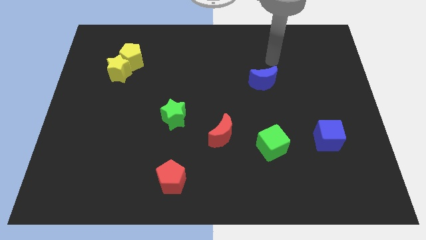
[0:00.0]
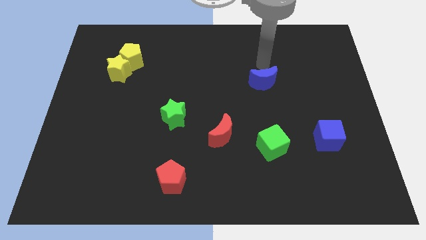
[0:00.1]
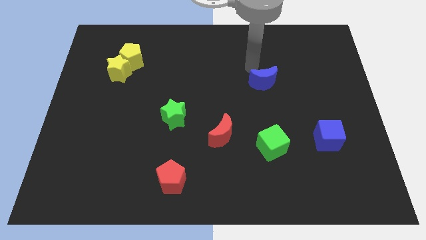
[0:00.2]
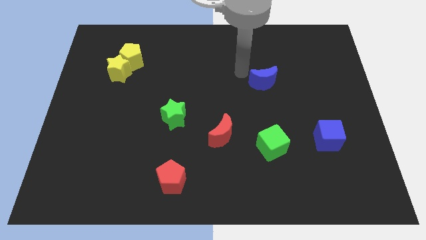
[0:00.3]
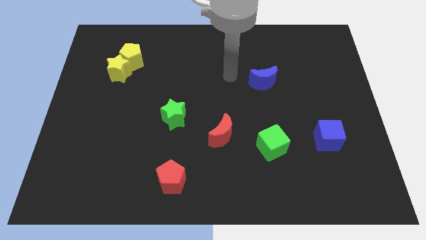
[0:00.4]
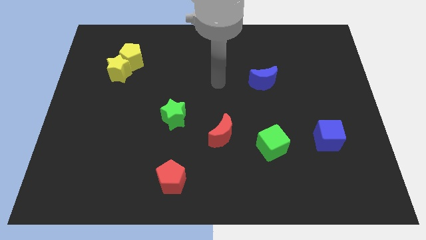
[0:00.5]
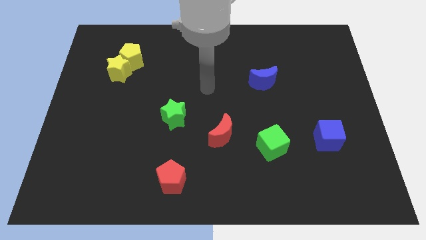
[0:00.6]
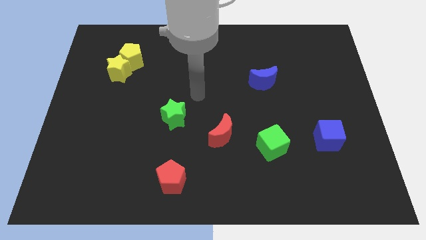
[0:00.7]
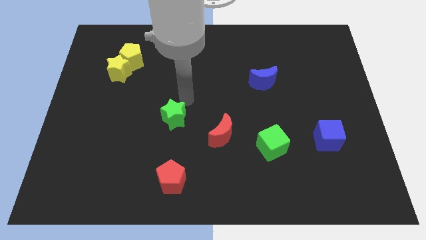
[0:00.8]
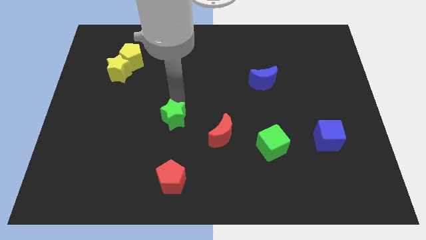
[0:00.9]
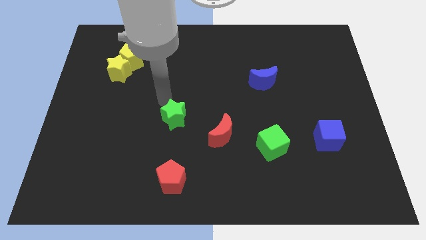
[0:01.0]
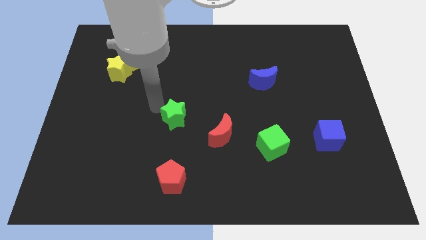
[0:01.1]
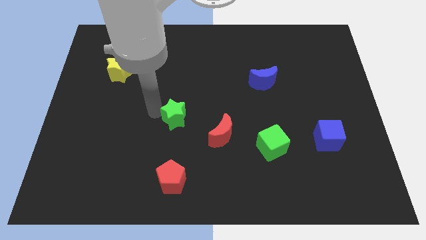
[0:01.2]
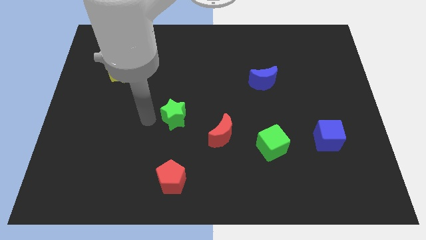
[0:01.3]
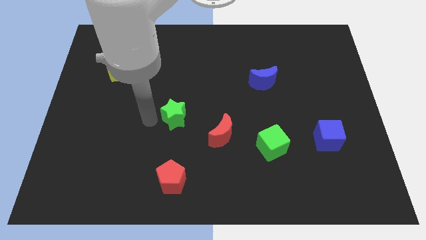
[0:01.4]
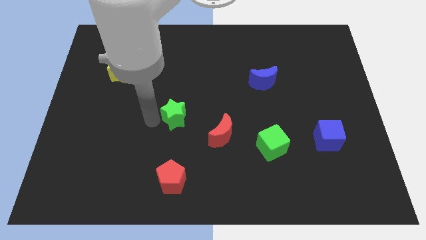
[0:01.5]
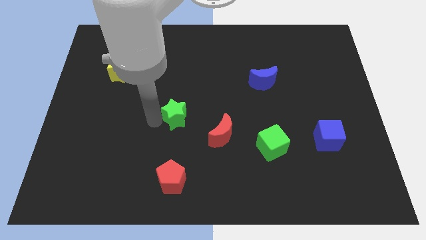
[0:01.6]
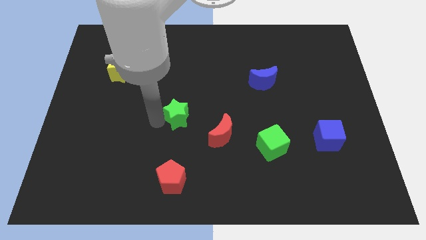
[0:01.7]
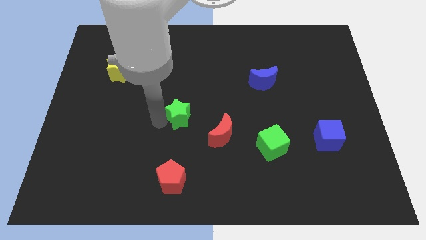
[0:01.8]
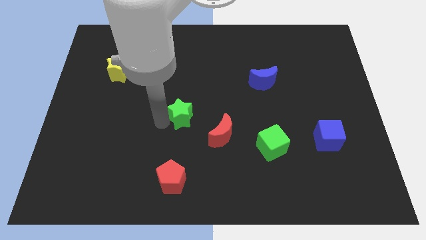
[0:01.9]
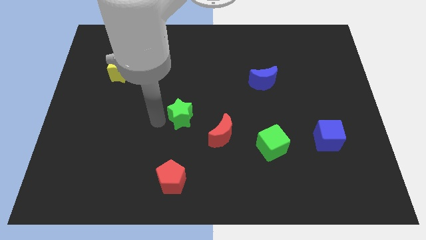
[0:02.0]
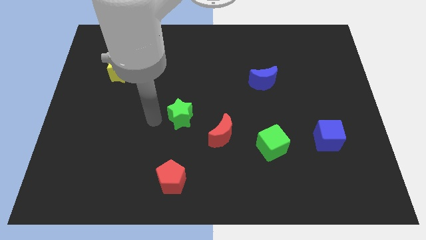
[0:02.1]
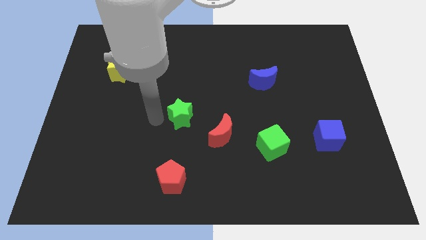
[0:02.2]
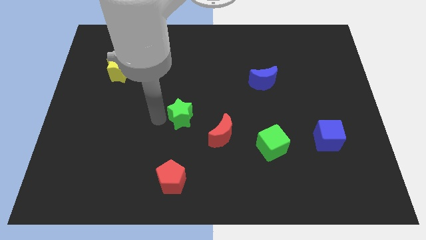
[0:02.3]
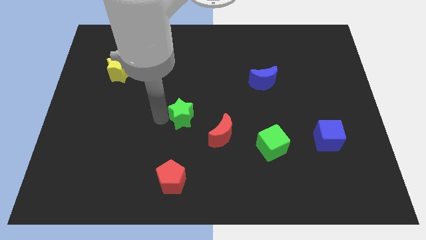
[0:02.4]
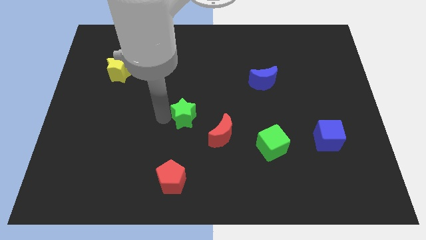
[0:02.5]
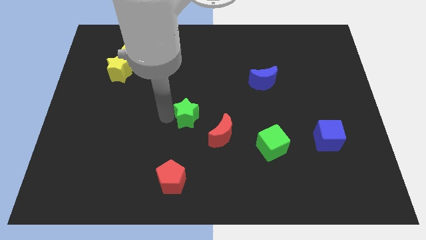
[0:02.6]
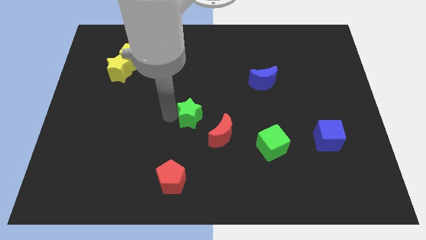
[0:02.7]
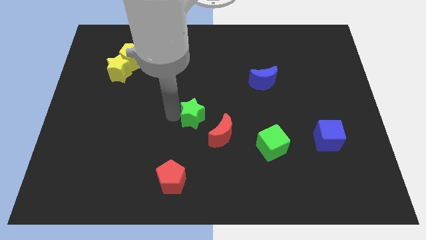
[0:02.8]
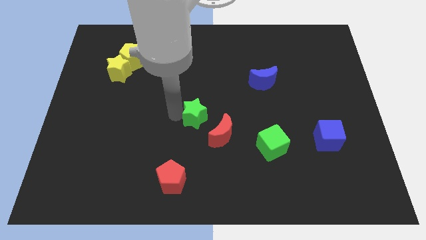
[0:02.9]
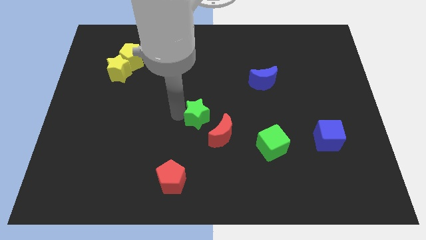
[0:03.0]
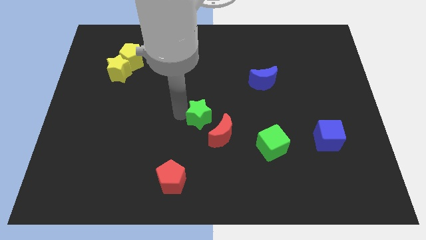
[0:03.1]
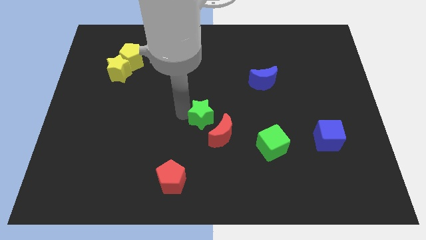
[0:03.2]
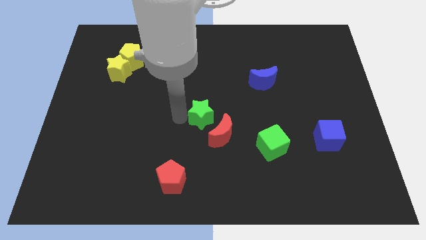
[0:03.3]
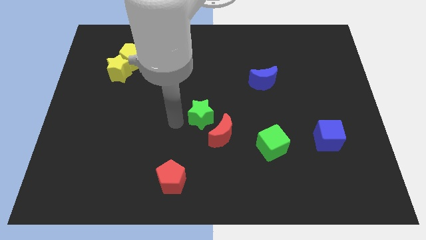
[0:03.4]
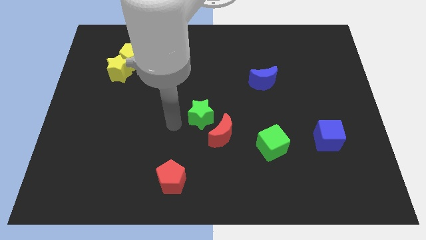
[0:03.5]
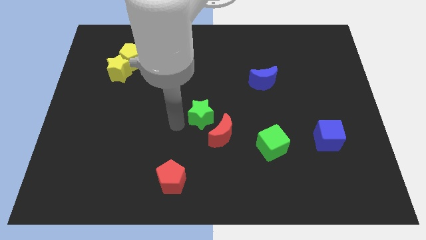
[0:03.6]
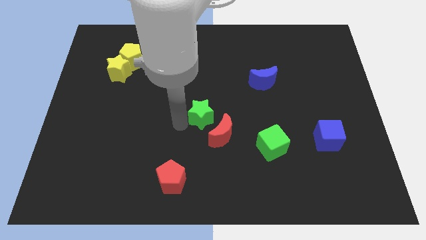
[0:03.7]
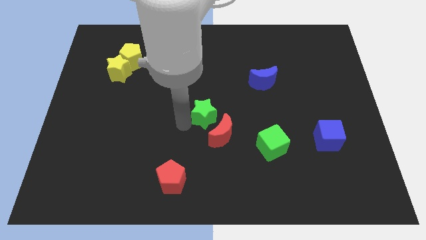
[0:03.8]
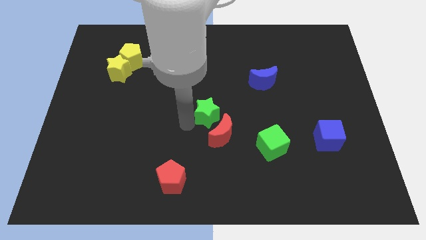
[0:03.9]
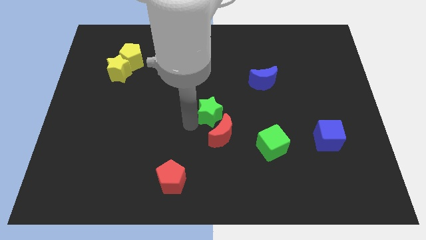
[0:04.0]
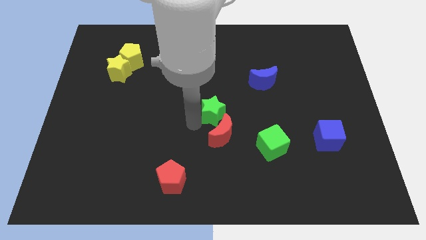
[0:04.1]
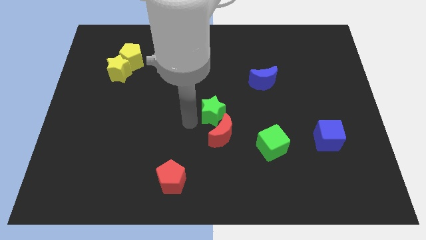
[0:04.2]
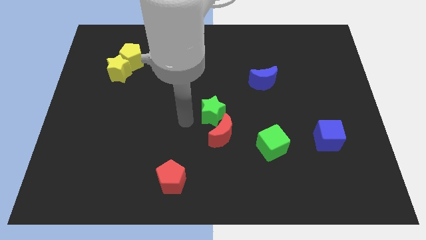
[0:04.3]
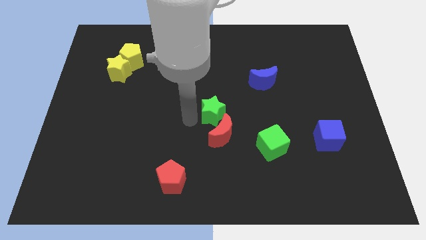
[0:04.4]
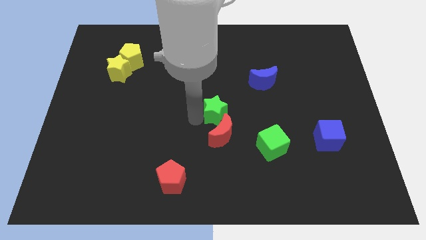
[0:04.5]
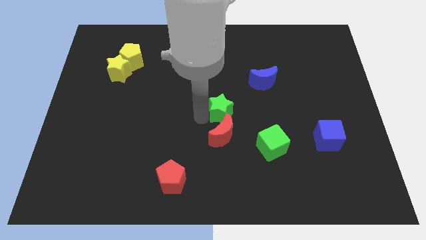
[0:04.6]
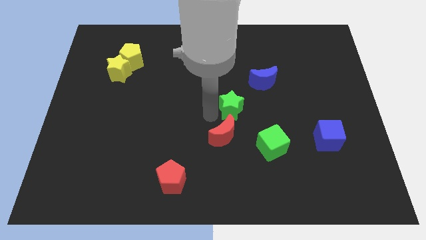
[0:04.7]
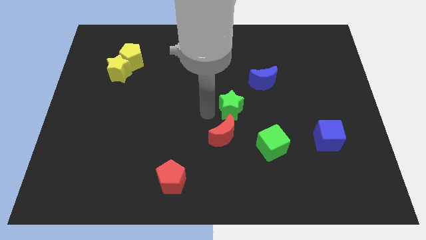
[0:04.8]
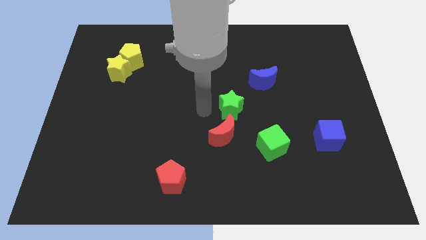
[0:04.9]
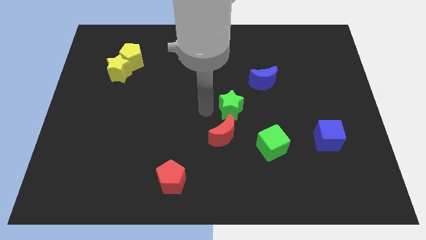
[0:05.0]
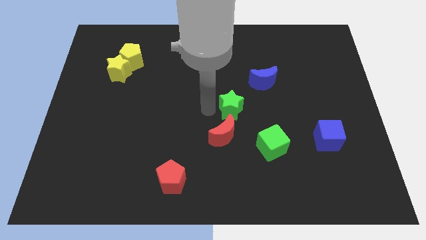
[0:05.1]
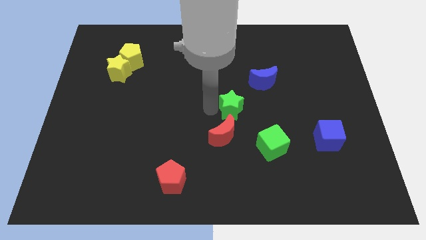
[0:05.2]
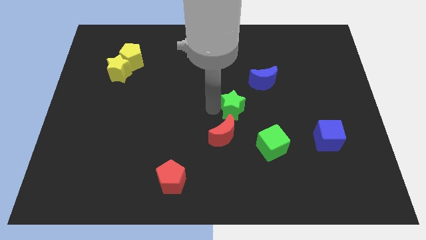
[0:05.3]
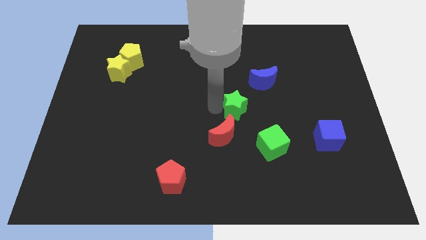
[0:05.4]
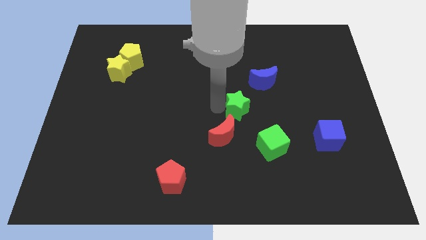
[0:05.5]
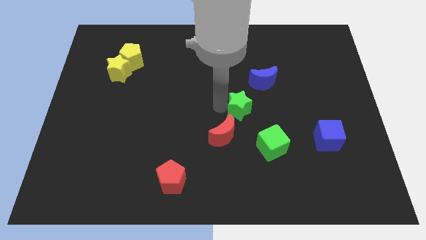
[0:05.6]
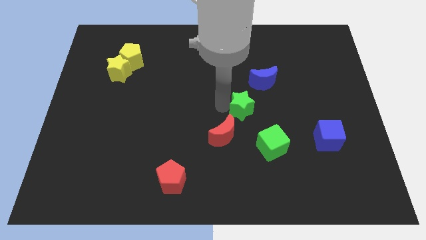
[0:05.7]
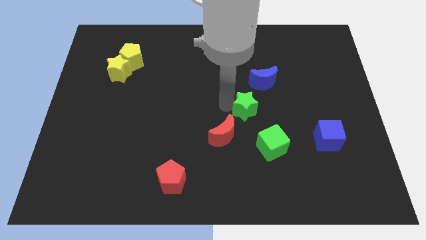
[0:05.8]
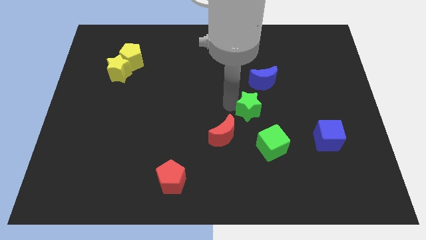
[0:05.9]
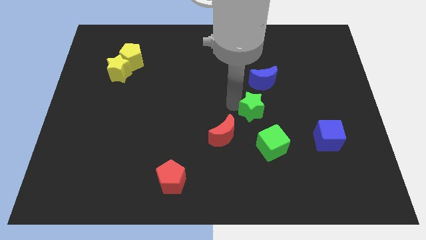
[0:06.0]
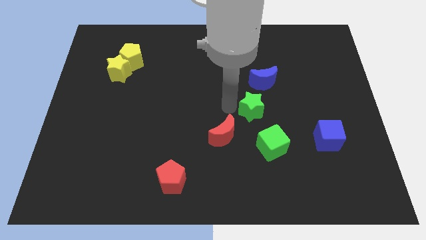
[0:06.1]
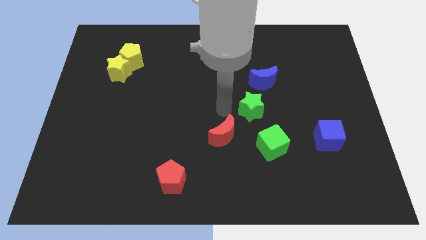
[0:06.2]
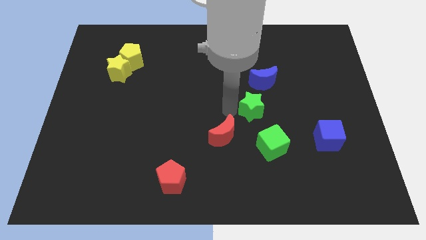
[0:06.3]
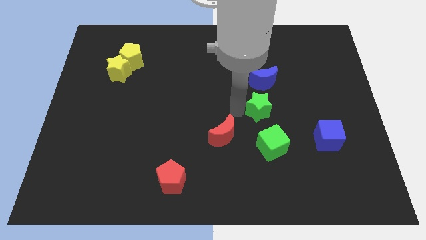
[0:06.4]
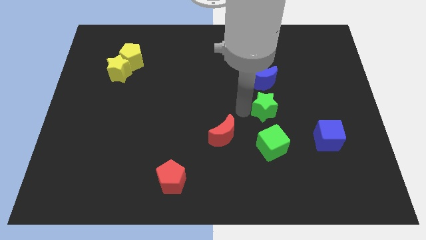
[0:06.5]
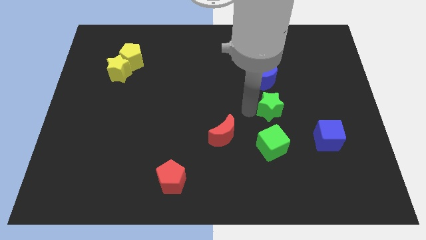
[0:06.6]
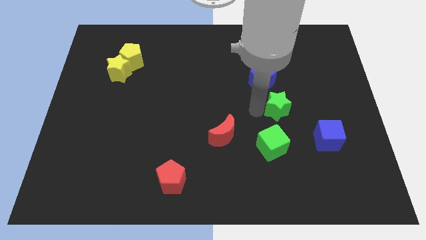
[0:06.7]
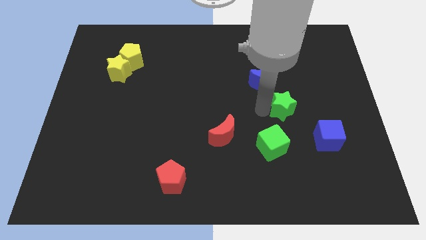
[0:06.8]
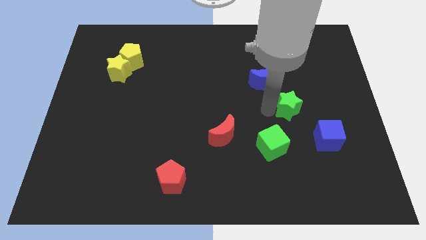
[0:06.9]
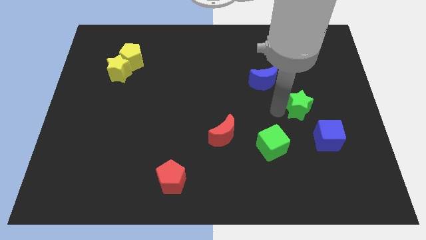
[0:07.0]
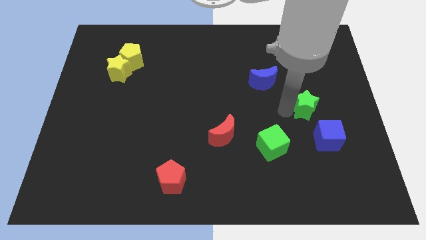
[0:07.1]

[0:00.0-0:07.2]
push the green star to the top of the blue cube
